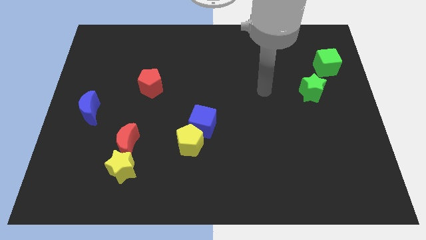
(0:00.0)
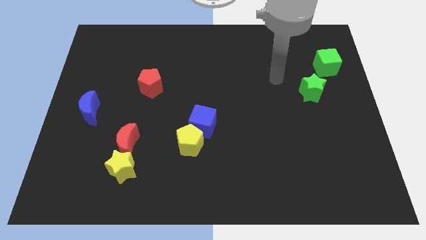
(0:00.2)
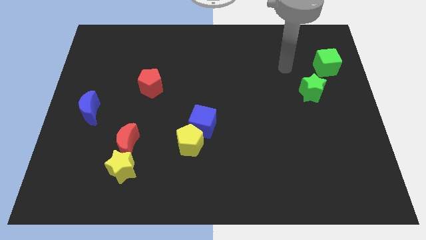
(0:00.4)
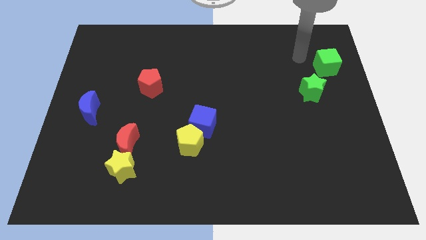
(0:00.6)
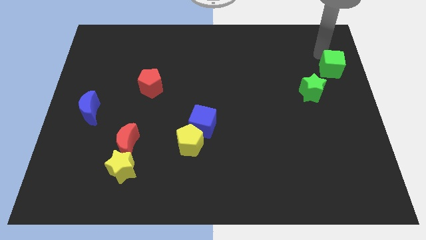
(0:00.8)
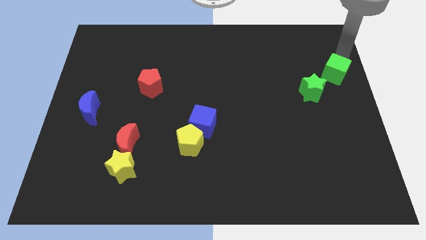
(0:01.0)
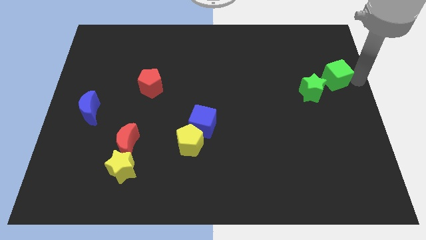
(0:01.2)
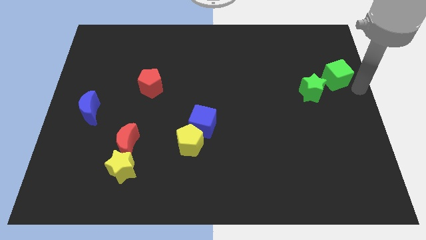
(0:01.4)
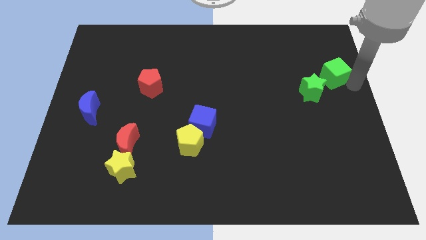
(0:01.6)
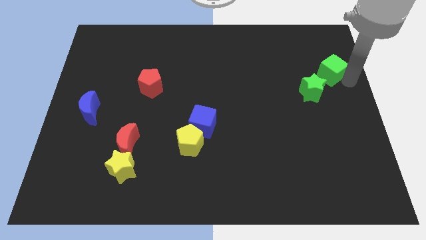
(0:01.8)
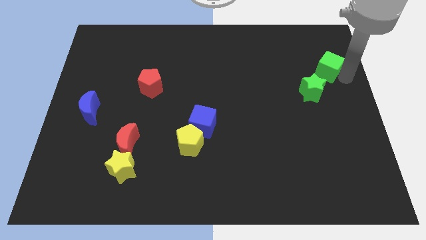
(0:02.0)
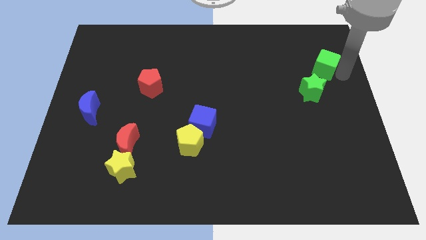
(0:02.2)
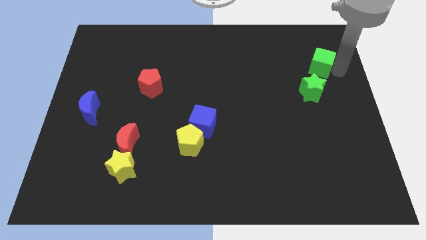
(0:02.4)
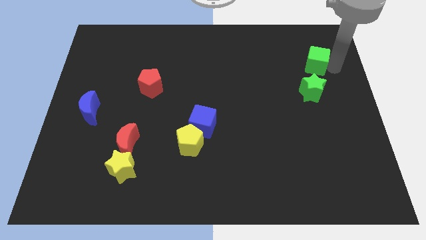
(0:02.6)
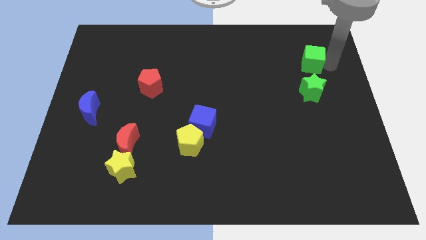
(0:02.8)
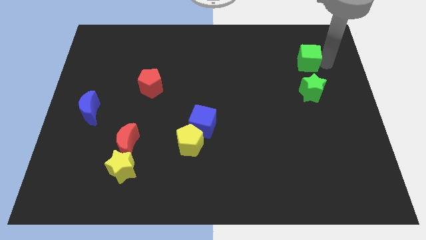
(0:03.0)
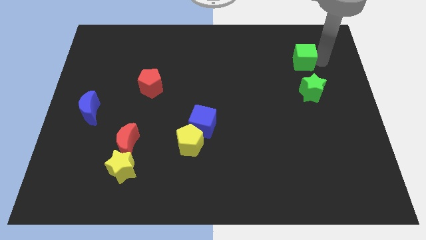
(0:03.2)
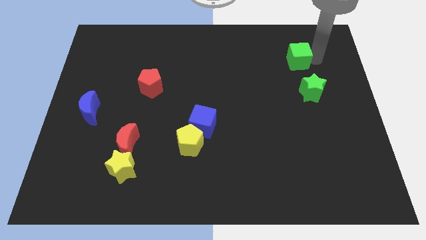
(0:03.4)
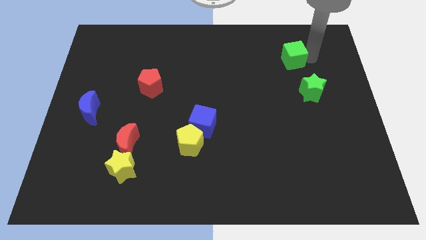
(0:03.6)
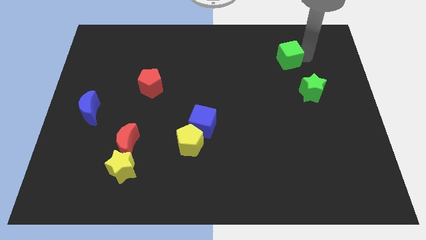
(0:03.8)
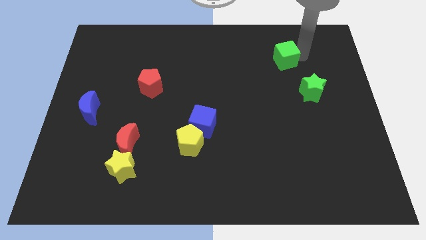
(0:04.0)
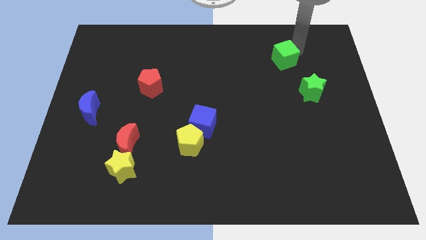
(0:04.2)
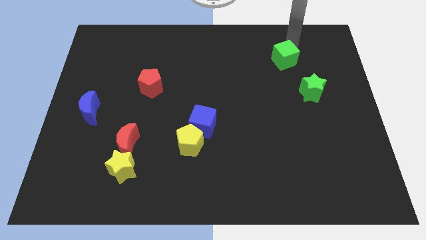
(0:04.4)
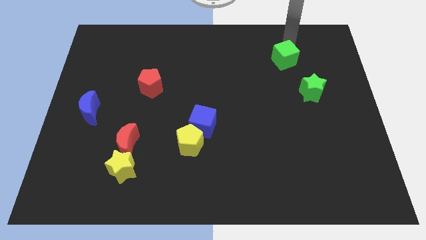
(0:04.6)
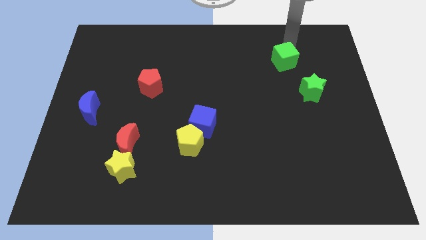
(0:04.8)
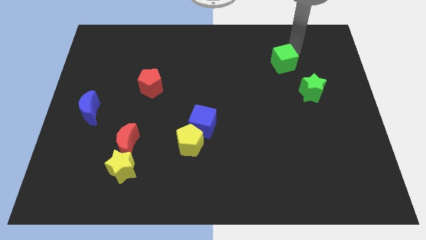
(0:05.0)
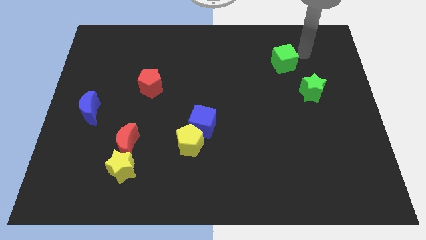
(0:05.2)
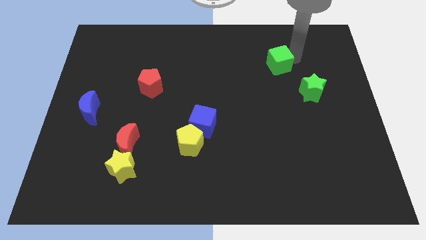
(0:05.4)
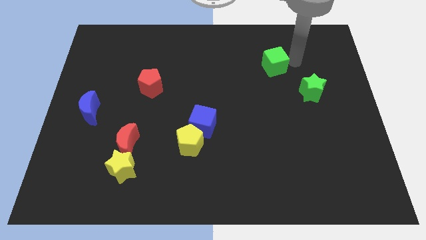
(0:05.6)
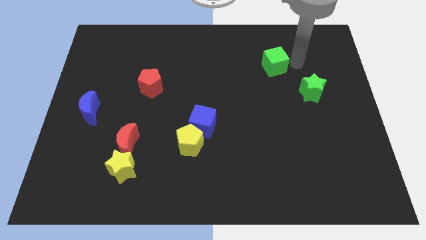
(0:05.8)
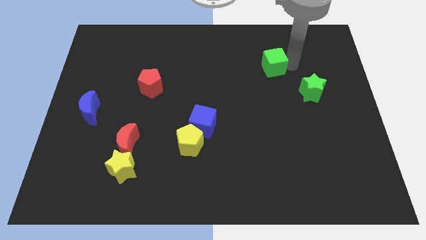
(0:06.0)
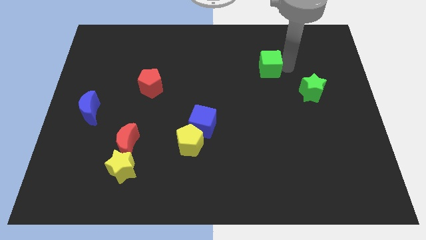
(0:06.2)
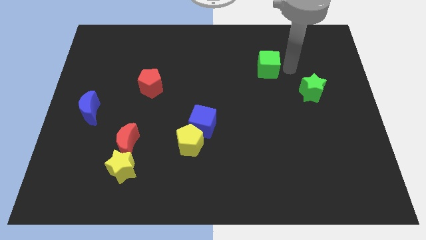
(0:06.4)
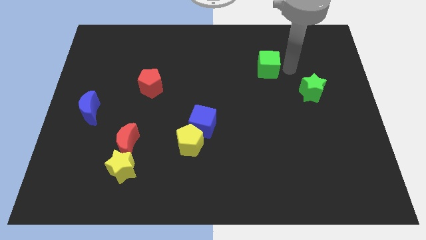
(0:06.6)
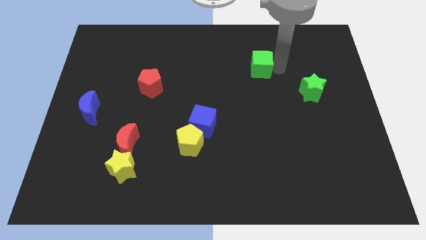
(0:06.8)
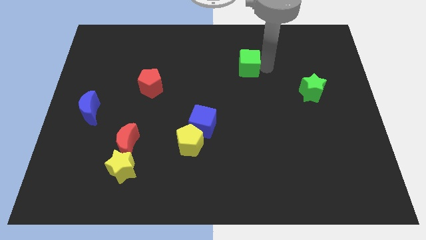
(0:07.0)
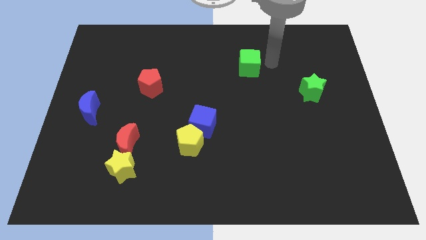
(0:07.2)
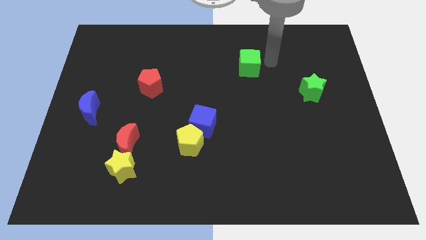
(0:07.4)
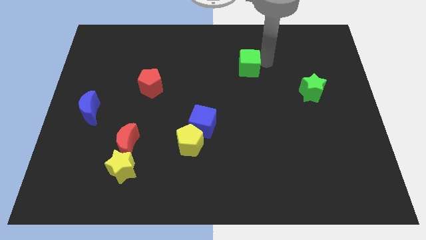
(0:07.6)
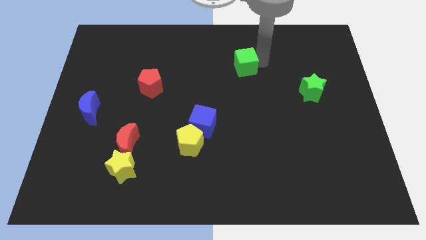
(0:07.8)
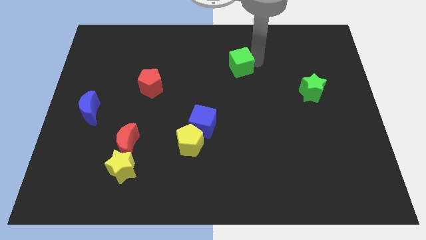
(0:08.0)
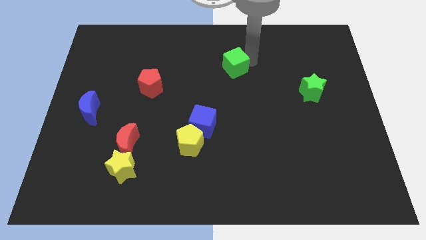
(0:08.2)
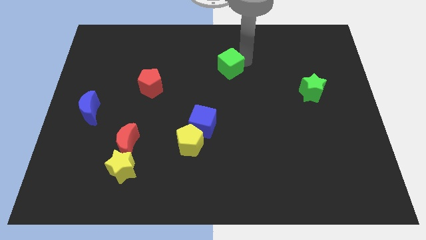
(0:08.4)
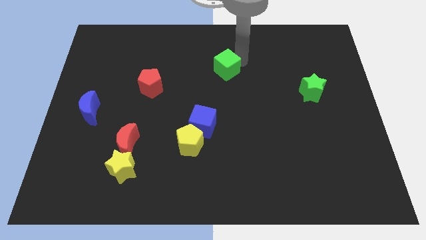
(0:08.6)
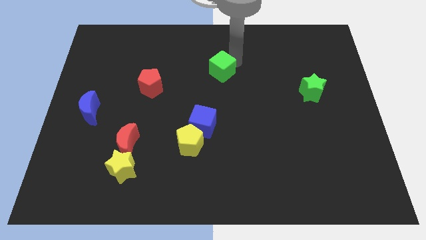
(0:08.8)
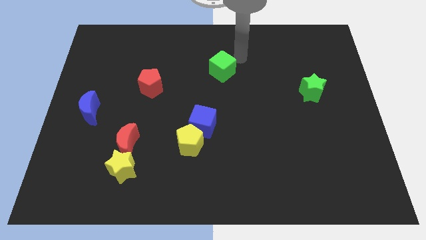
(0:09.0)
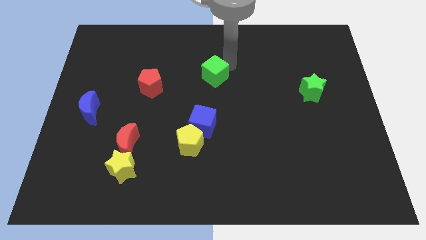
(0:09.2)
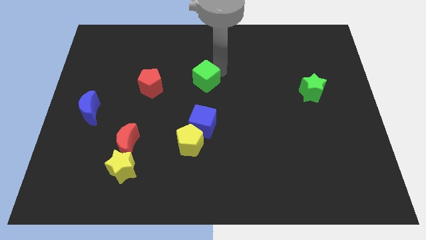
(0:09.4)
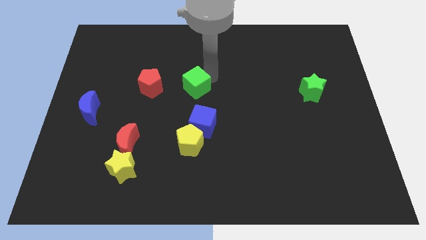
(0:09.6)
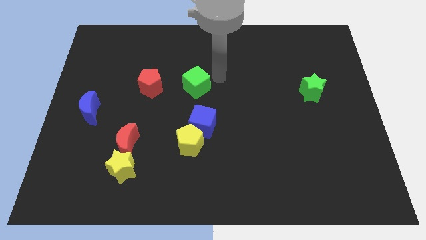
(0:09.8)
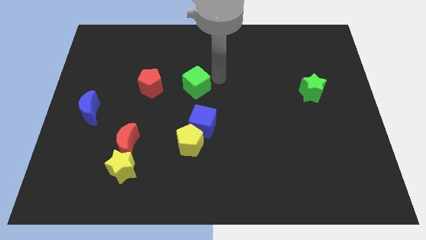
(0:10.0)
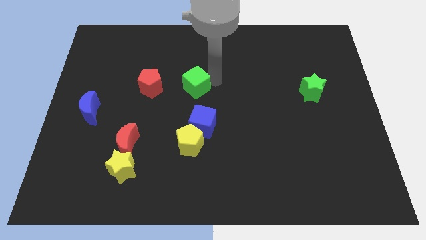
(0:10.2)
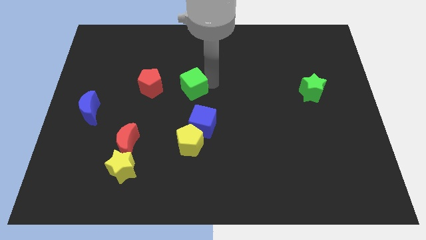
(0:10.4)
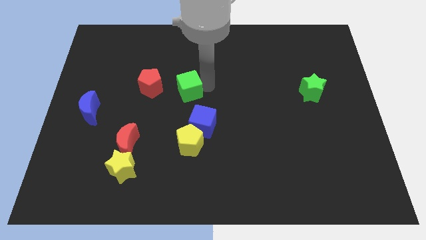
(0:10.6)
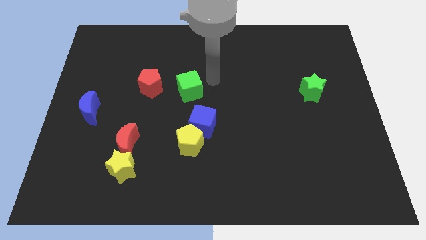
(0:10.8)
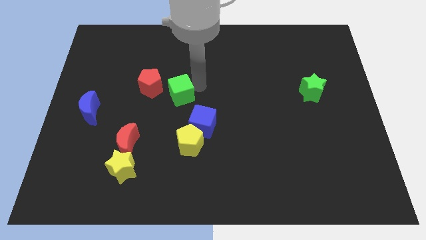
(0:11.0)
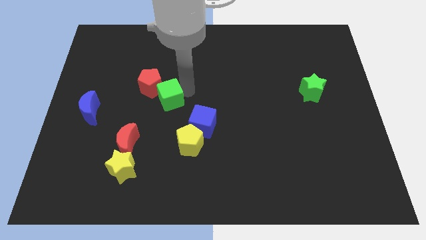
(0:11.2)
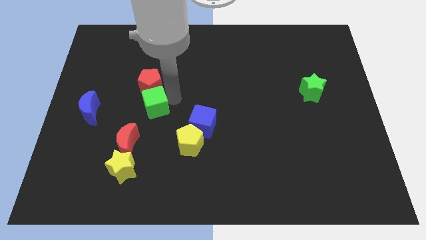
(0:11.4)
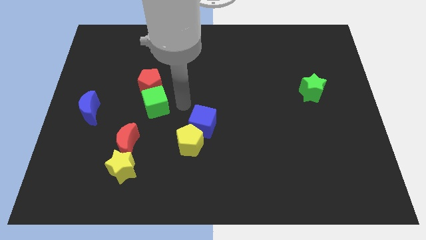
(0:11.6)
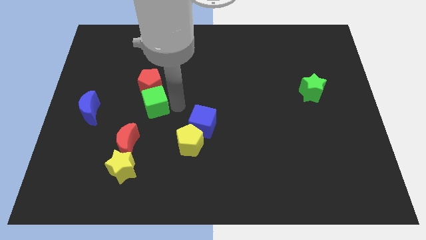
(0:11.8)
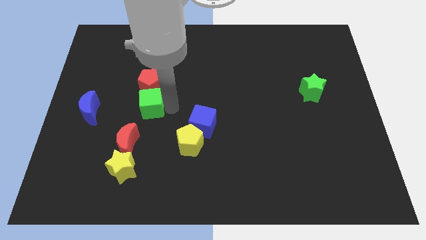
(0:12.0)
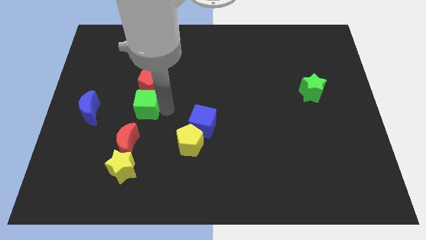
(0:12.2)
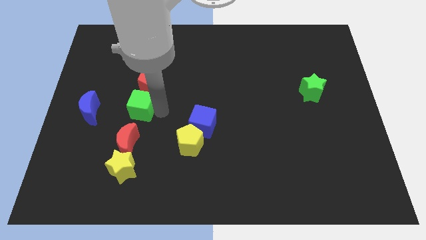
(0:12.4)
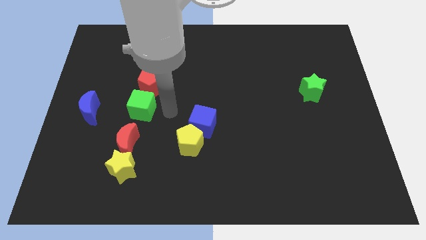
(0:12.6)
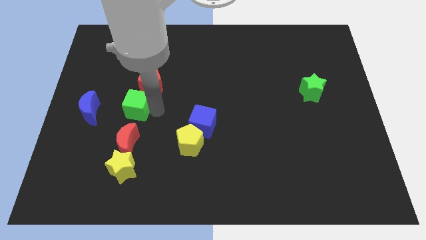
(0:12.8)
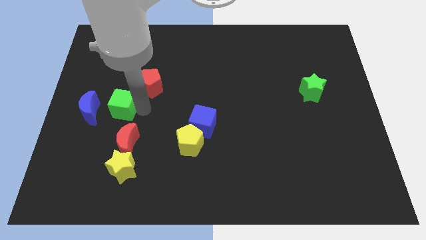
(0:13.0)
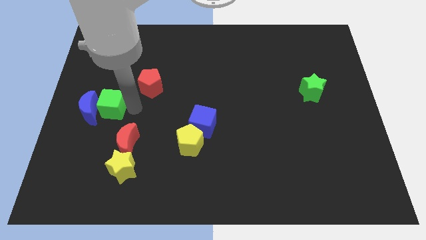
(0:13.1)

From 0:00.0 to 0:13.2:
push the green cube next to the blue moon

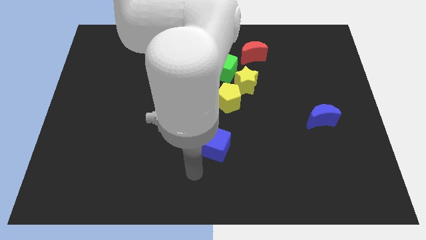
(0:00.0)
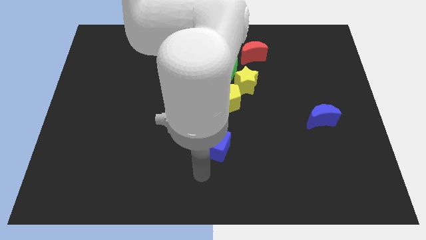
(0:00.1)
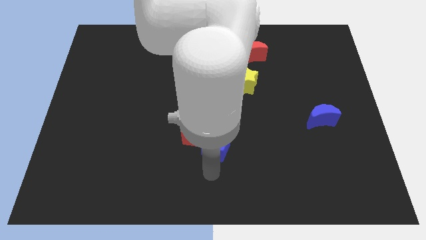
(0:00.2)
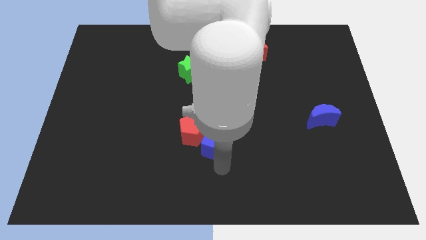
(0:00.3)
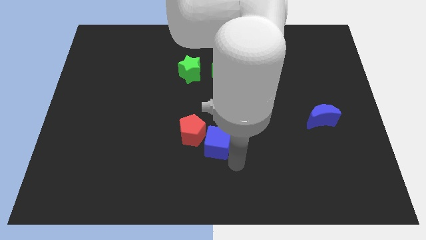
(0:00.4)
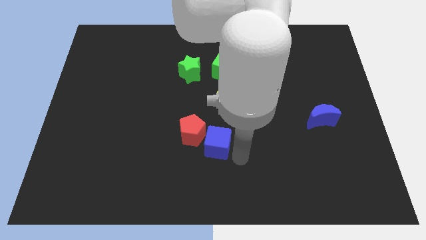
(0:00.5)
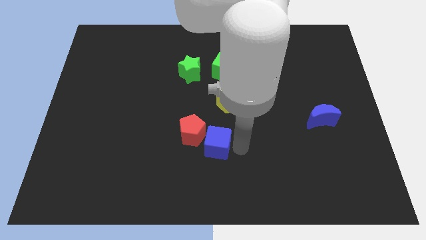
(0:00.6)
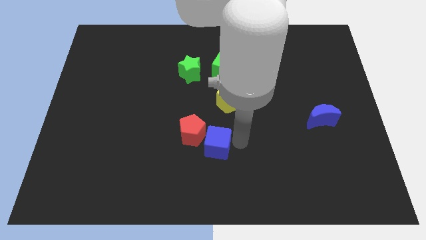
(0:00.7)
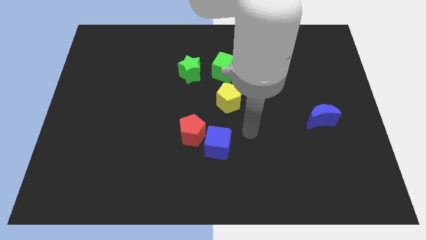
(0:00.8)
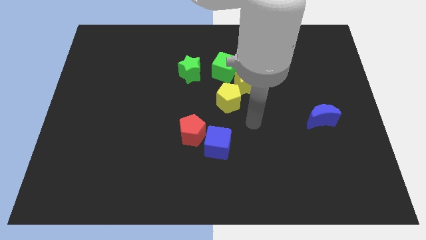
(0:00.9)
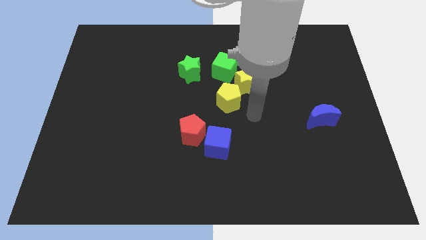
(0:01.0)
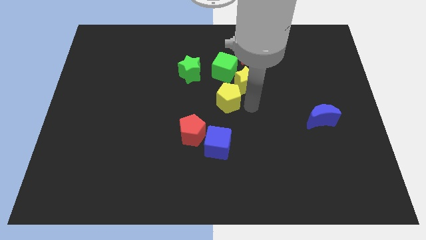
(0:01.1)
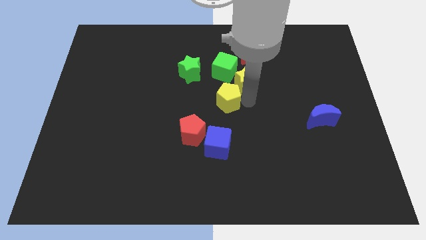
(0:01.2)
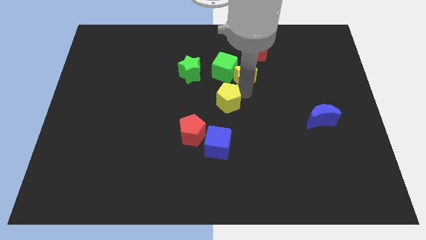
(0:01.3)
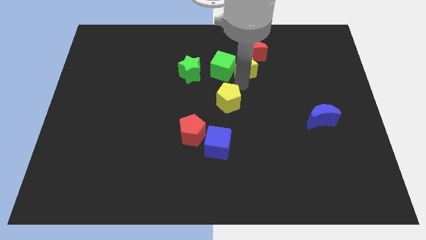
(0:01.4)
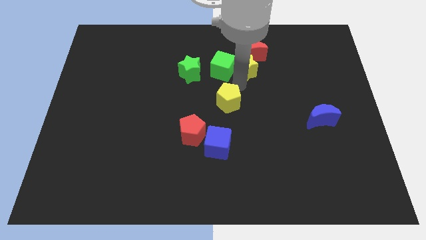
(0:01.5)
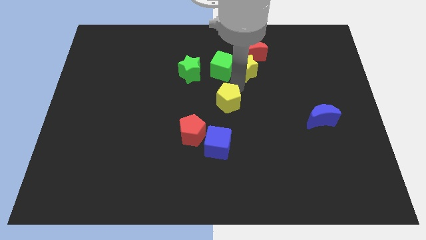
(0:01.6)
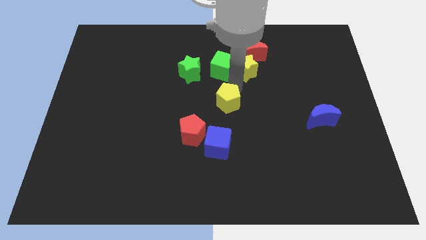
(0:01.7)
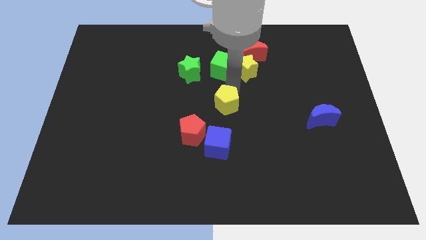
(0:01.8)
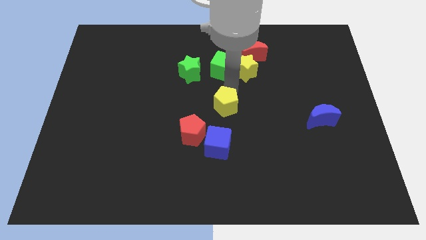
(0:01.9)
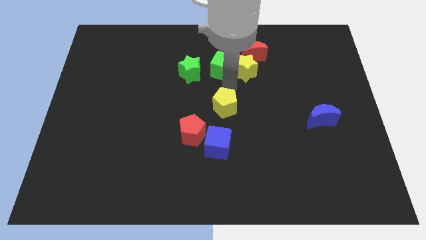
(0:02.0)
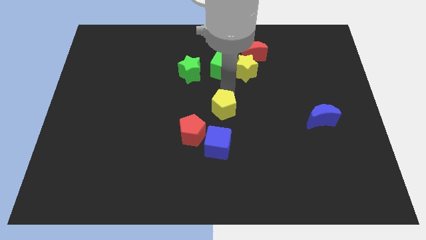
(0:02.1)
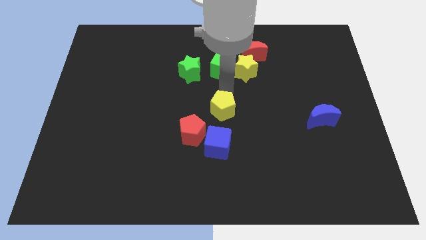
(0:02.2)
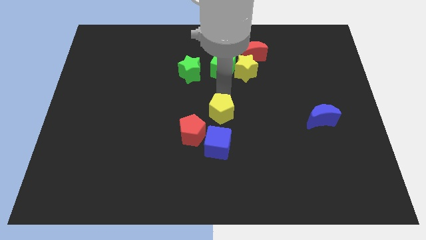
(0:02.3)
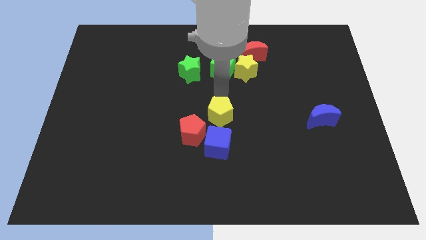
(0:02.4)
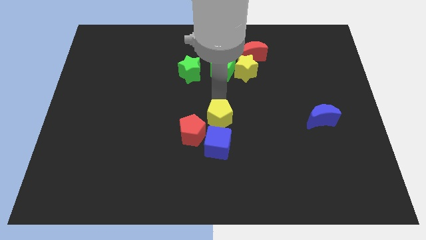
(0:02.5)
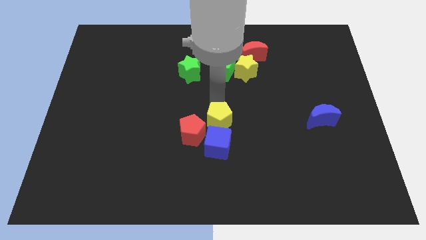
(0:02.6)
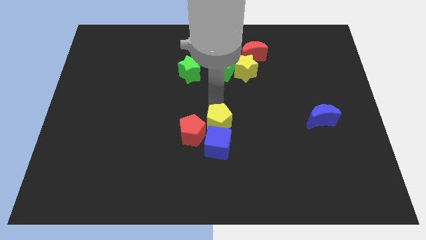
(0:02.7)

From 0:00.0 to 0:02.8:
push the yellow pentagon to the blue cube
